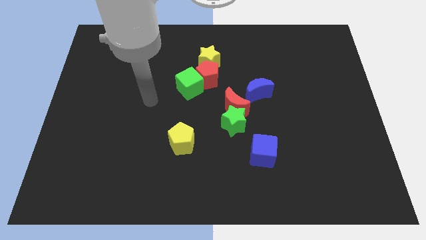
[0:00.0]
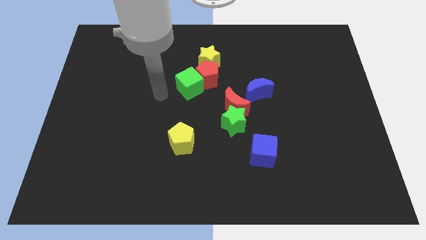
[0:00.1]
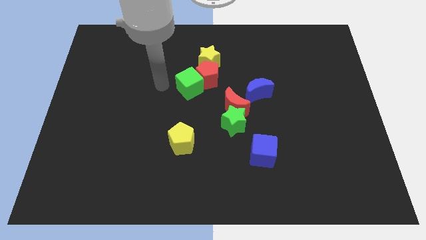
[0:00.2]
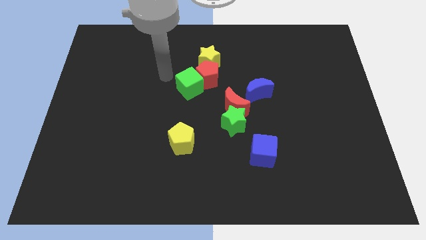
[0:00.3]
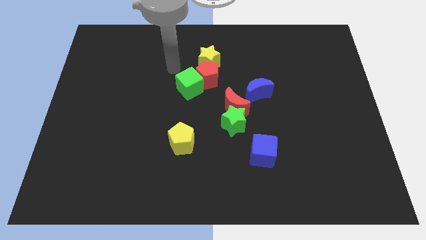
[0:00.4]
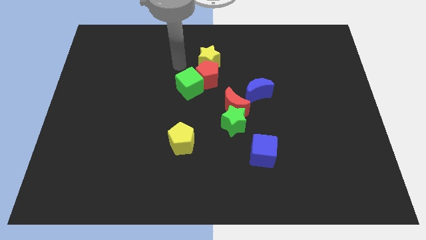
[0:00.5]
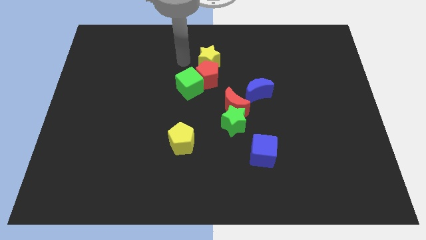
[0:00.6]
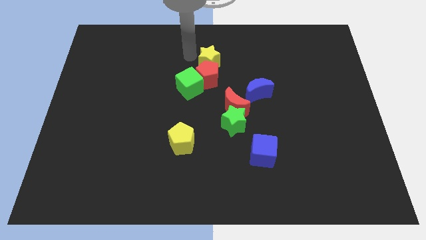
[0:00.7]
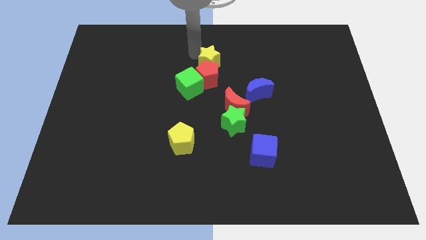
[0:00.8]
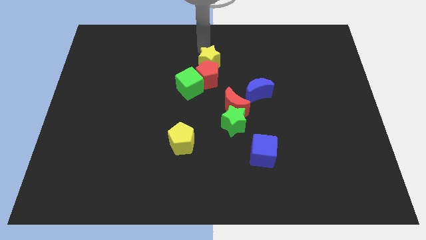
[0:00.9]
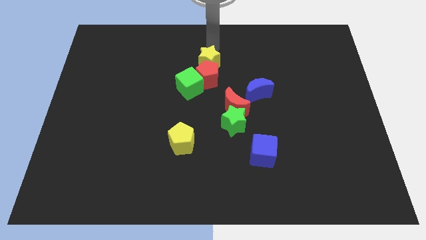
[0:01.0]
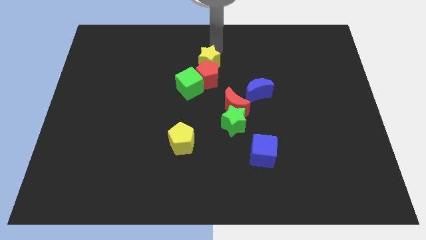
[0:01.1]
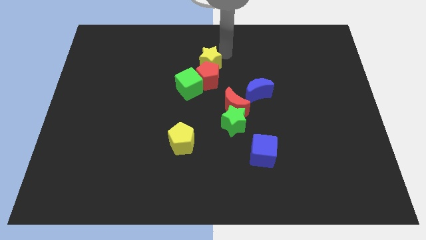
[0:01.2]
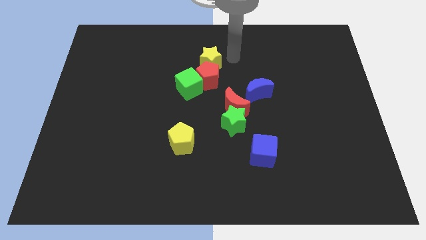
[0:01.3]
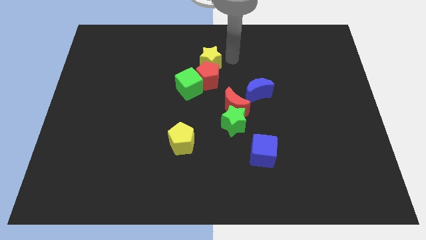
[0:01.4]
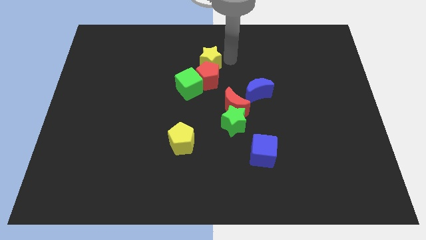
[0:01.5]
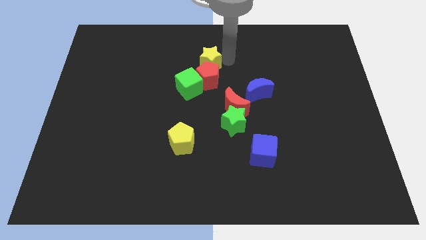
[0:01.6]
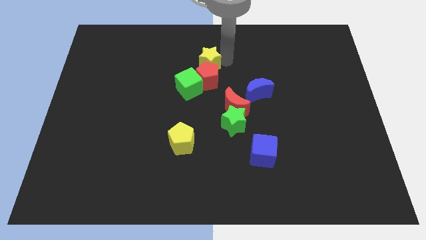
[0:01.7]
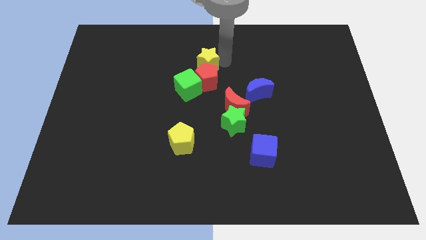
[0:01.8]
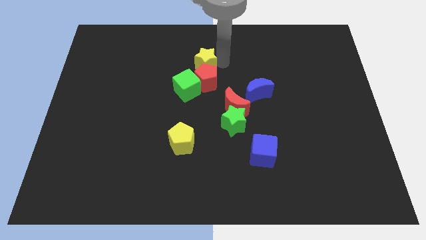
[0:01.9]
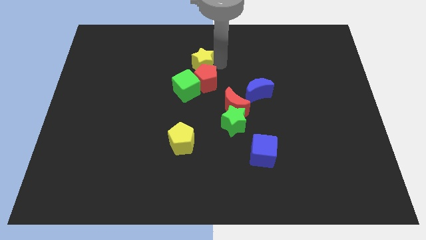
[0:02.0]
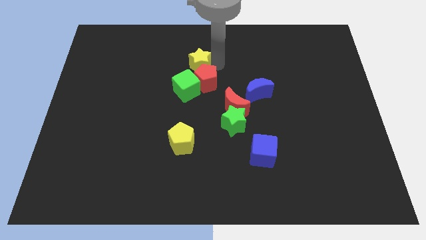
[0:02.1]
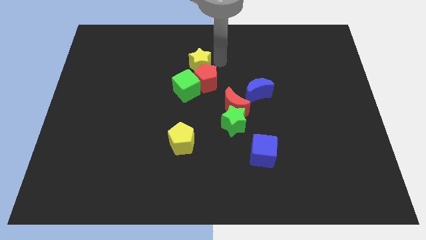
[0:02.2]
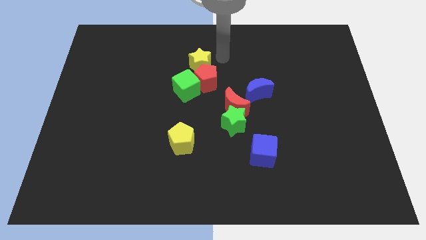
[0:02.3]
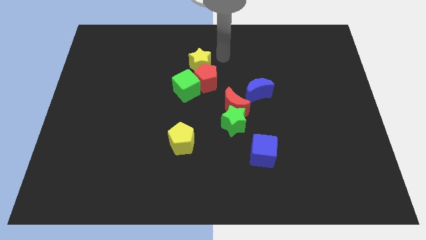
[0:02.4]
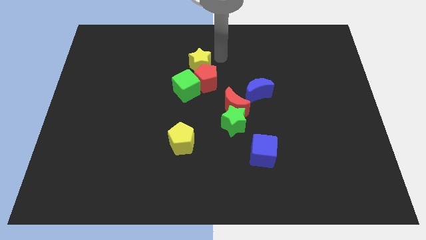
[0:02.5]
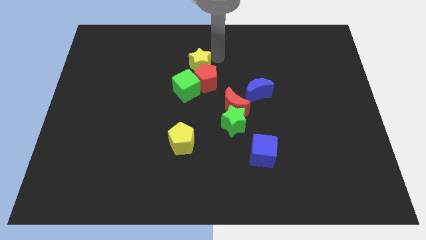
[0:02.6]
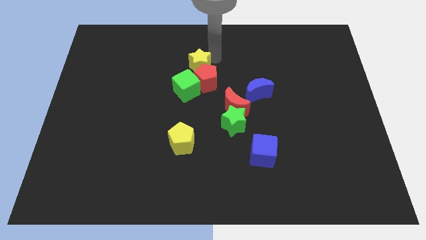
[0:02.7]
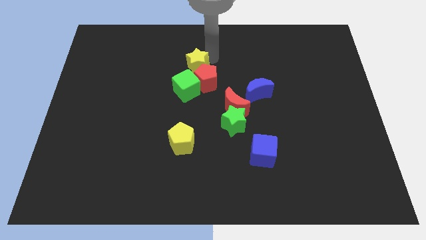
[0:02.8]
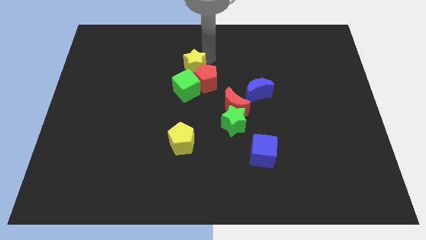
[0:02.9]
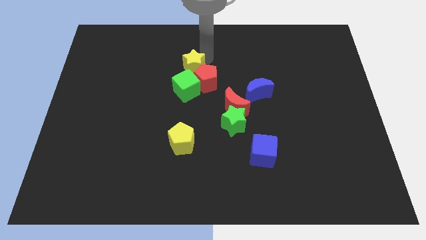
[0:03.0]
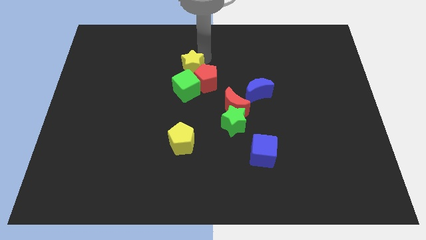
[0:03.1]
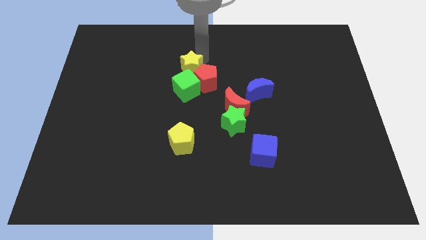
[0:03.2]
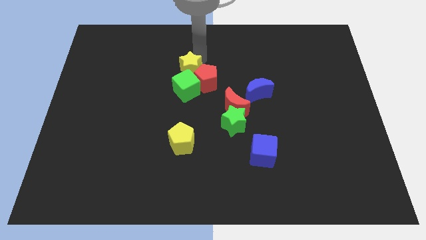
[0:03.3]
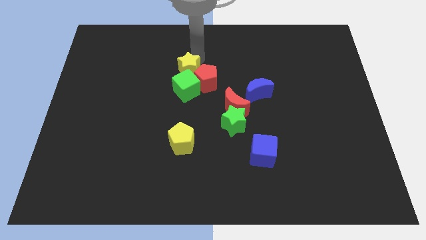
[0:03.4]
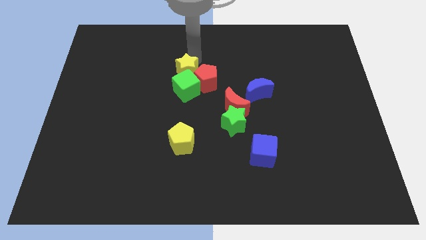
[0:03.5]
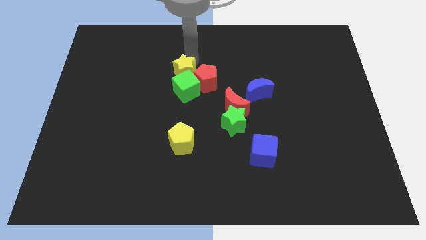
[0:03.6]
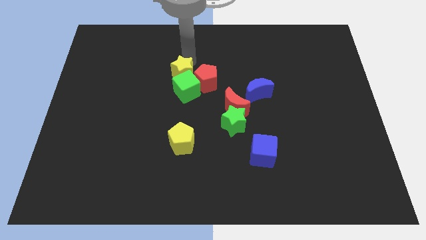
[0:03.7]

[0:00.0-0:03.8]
slide the yellow star downwards and to the left diagonally a bit

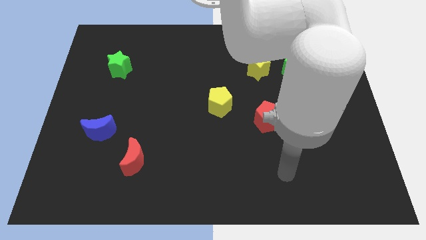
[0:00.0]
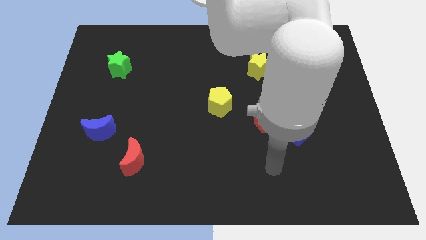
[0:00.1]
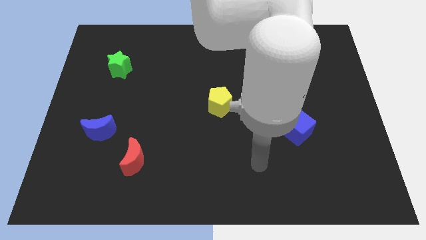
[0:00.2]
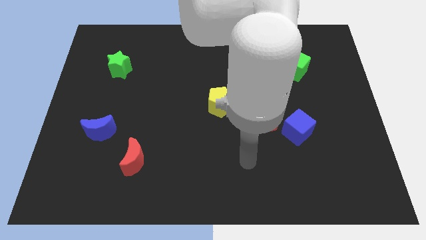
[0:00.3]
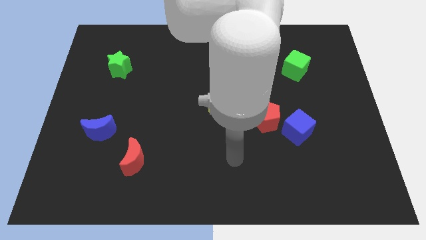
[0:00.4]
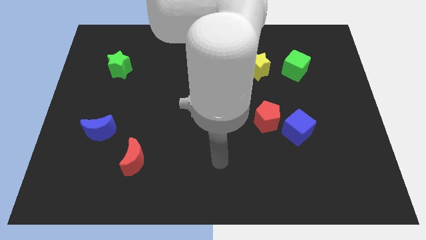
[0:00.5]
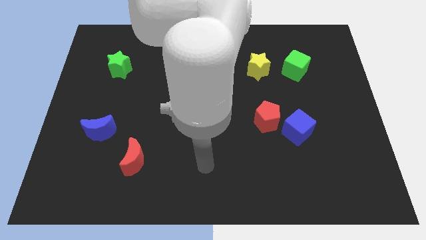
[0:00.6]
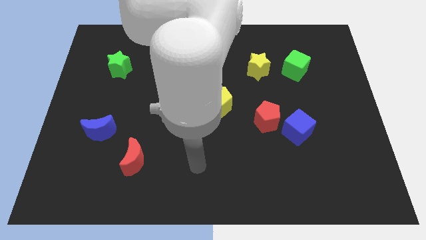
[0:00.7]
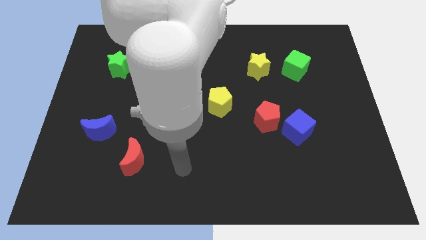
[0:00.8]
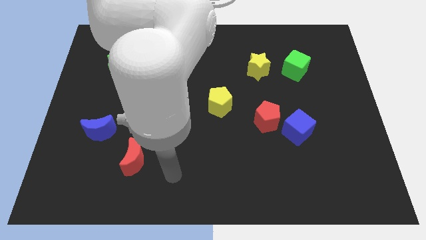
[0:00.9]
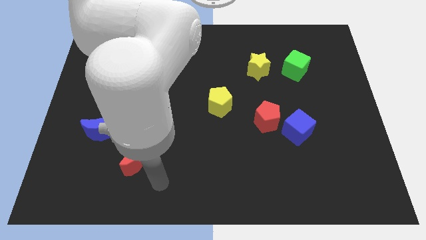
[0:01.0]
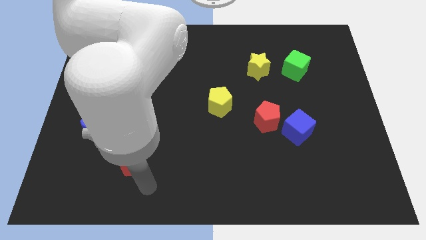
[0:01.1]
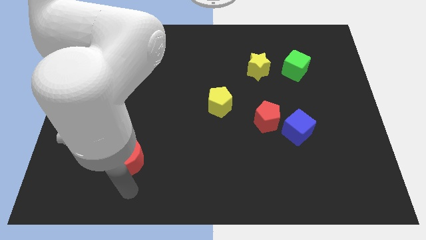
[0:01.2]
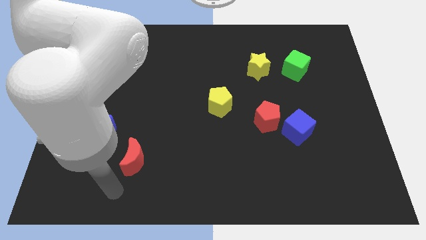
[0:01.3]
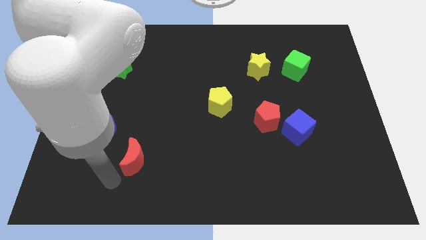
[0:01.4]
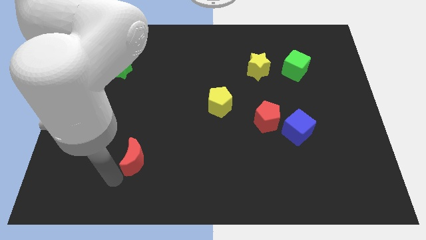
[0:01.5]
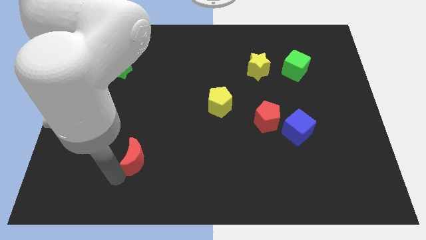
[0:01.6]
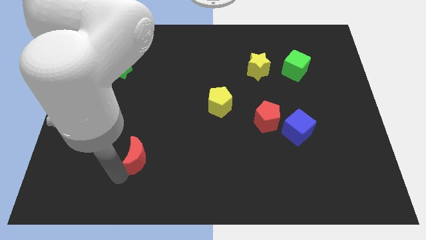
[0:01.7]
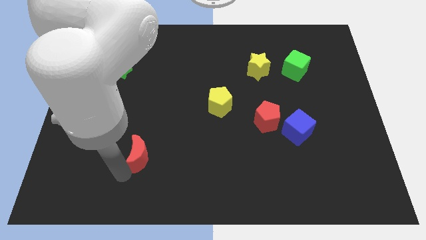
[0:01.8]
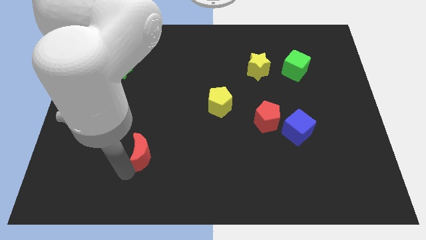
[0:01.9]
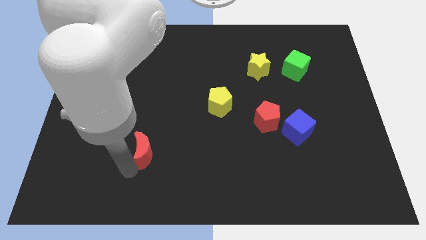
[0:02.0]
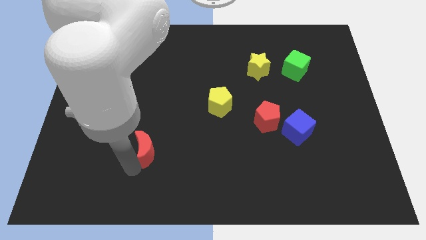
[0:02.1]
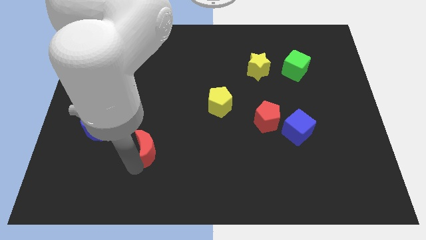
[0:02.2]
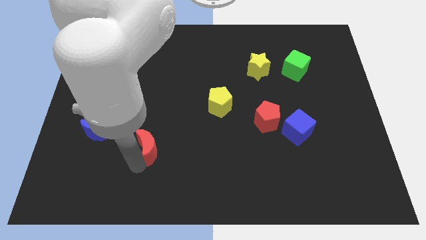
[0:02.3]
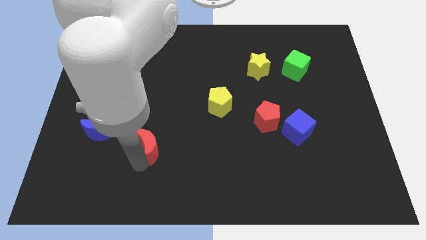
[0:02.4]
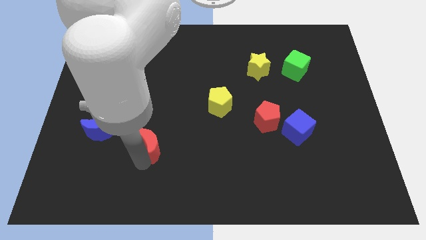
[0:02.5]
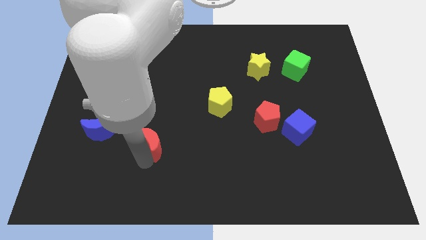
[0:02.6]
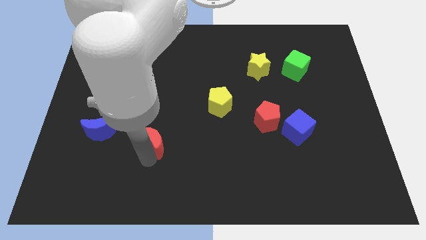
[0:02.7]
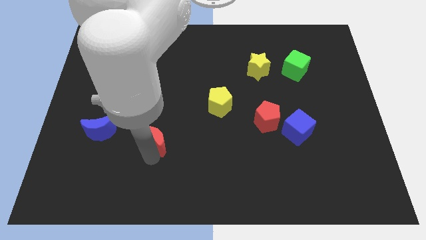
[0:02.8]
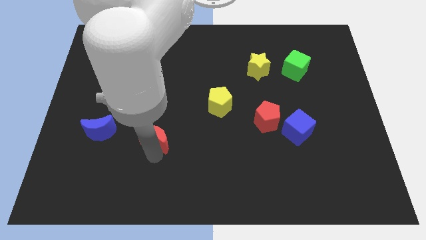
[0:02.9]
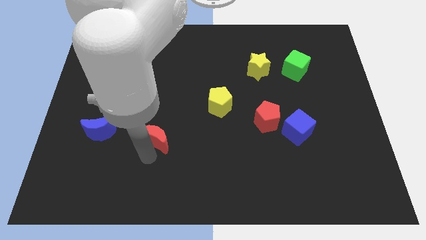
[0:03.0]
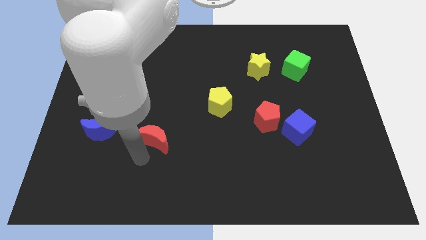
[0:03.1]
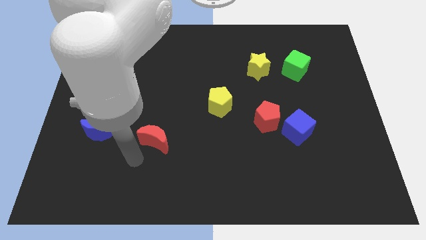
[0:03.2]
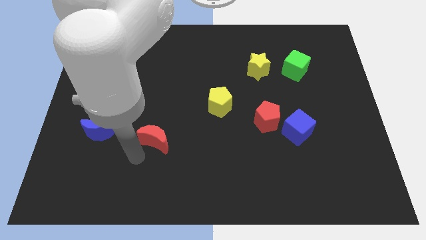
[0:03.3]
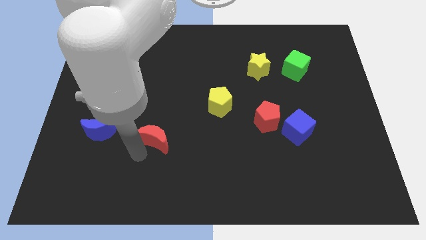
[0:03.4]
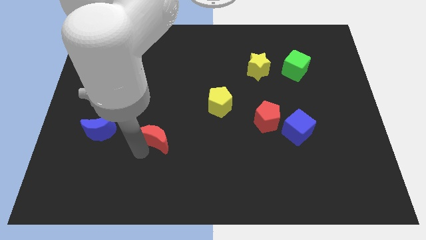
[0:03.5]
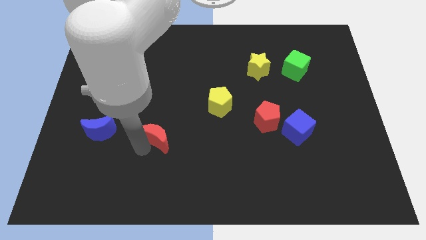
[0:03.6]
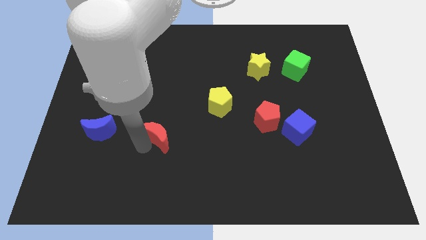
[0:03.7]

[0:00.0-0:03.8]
move the red moon upwards and to the right somewhat

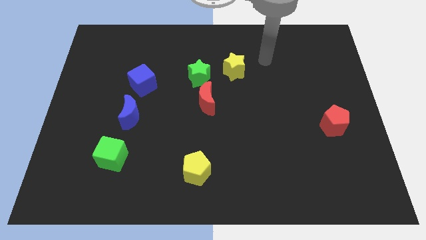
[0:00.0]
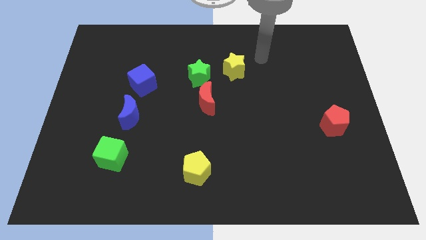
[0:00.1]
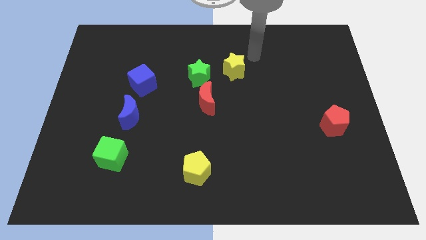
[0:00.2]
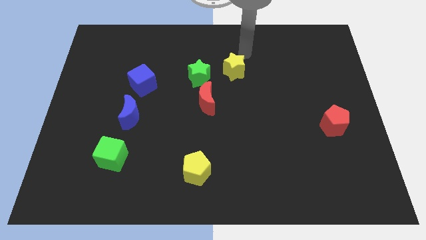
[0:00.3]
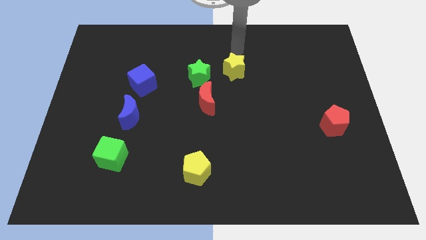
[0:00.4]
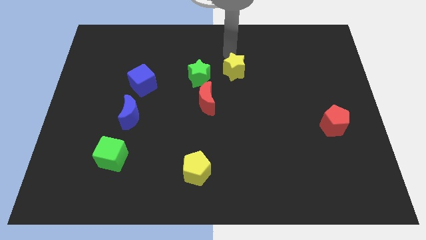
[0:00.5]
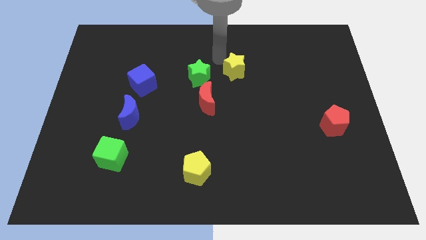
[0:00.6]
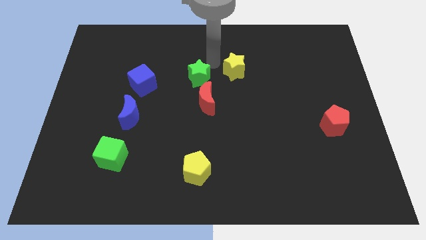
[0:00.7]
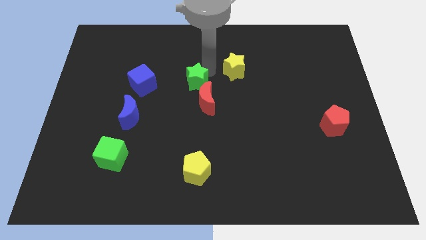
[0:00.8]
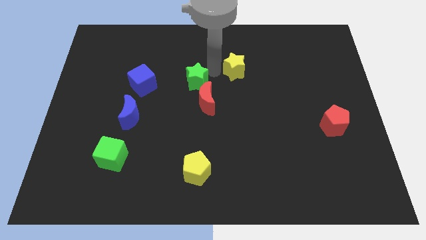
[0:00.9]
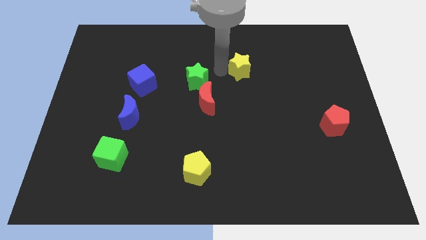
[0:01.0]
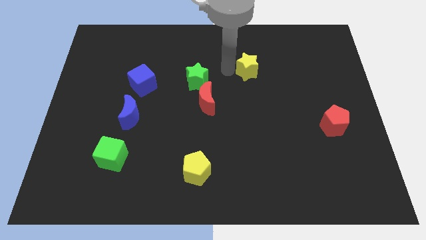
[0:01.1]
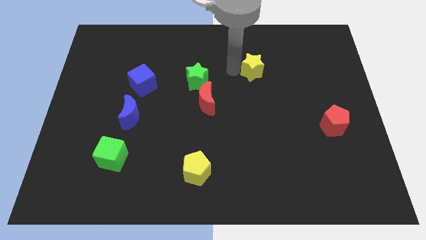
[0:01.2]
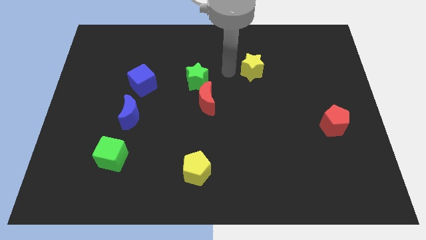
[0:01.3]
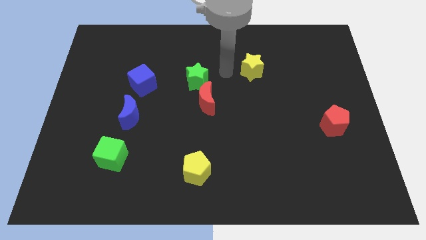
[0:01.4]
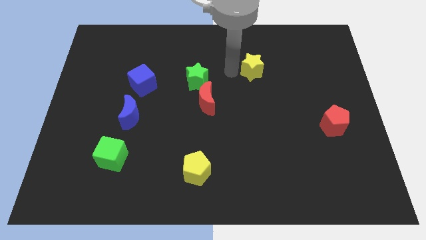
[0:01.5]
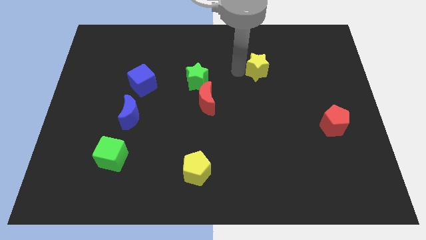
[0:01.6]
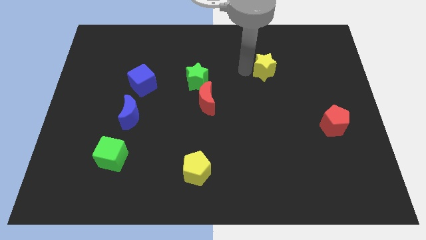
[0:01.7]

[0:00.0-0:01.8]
push the yellow star slightly right
